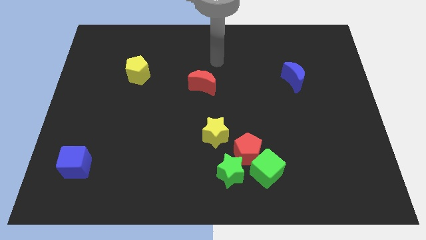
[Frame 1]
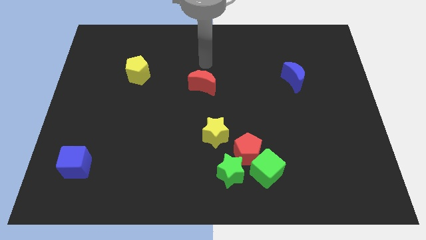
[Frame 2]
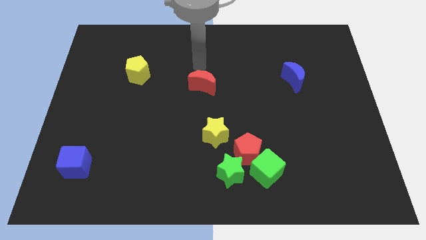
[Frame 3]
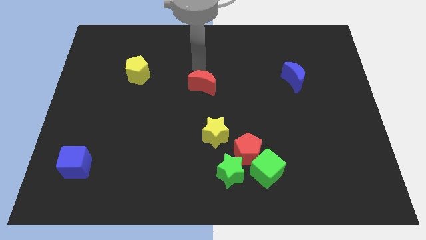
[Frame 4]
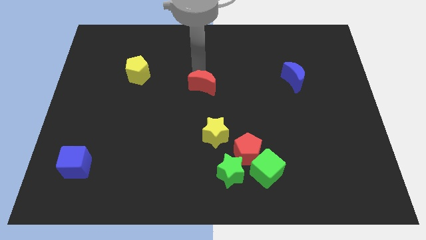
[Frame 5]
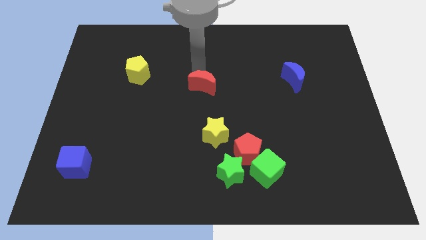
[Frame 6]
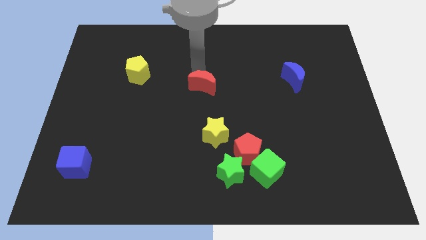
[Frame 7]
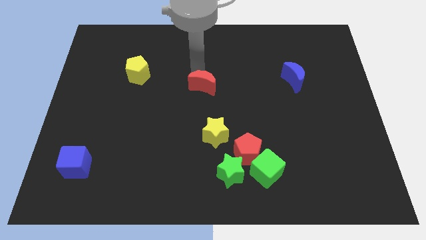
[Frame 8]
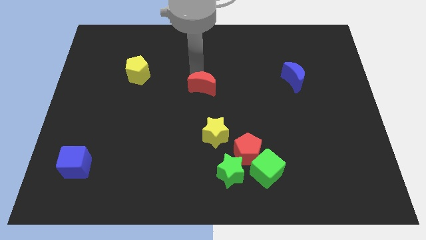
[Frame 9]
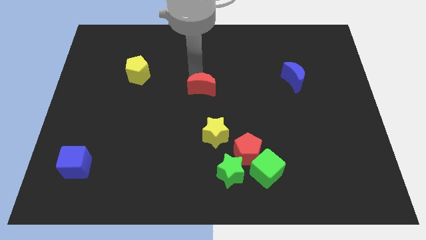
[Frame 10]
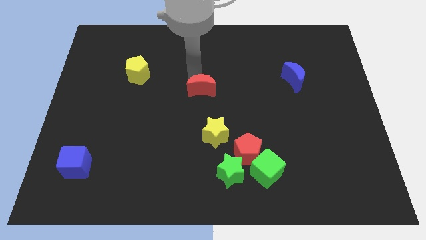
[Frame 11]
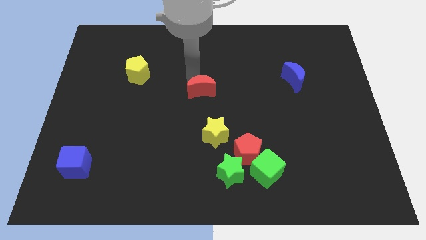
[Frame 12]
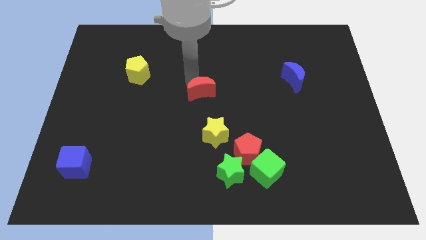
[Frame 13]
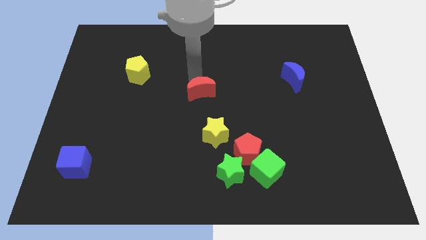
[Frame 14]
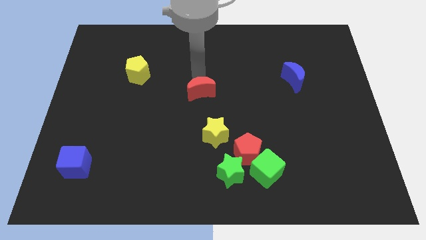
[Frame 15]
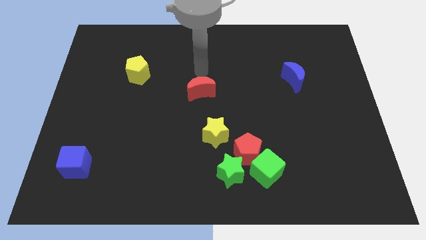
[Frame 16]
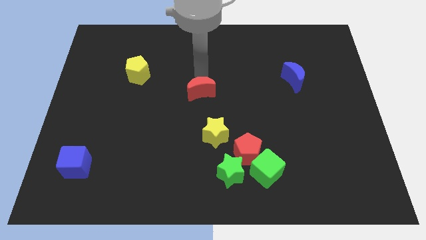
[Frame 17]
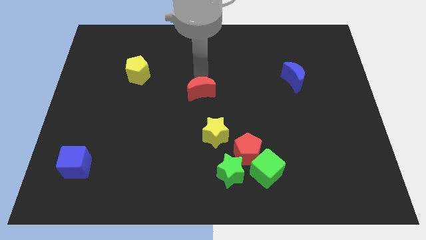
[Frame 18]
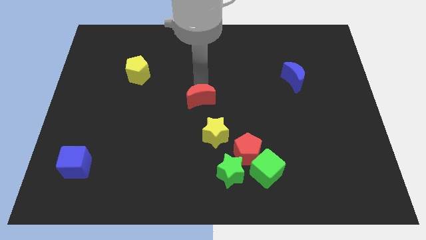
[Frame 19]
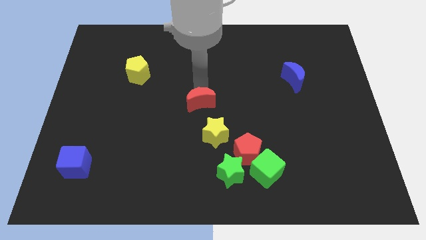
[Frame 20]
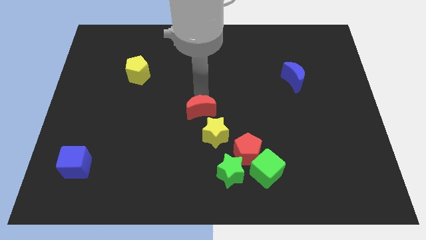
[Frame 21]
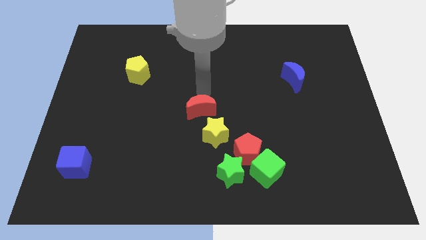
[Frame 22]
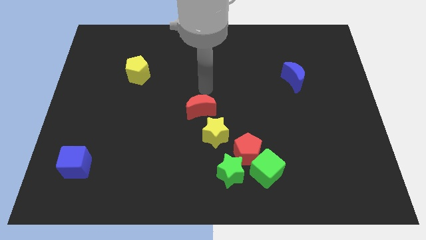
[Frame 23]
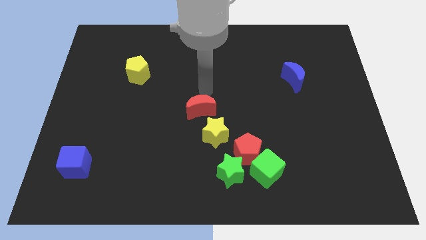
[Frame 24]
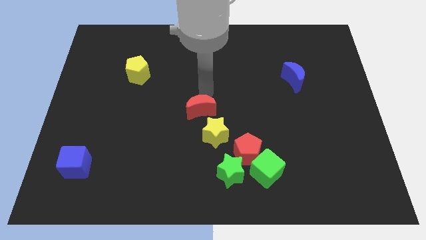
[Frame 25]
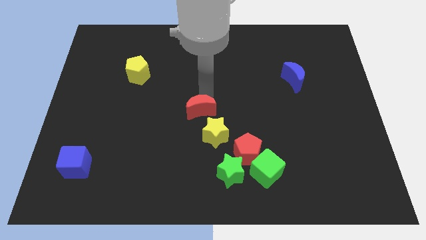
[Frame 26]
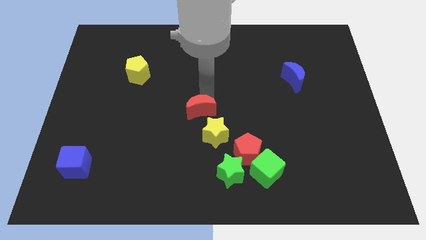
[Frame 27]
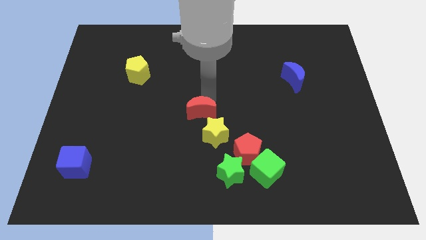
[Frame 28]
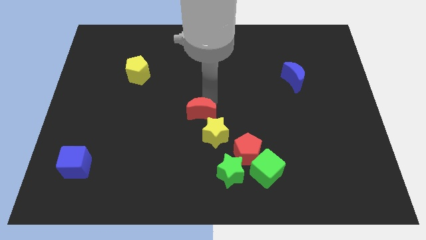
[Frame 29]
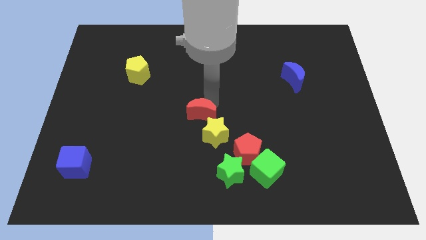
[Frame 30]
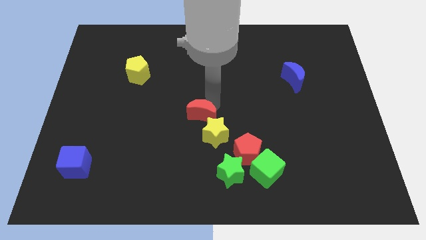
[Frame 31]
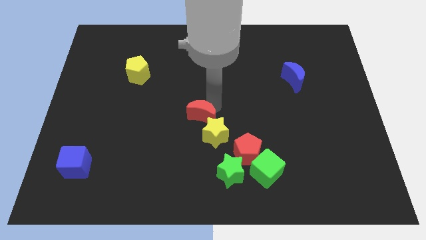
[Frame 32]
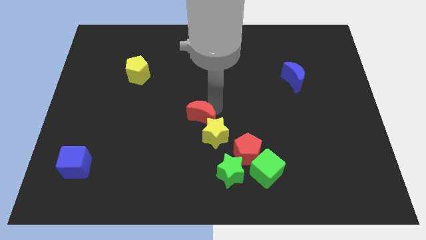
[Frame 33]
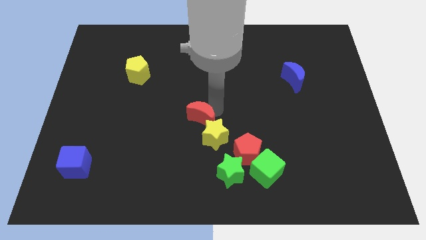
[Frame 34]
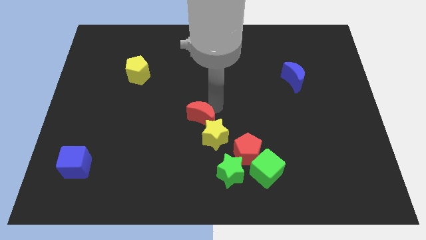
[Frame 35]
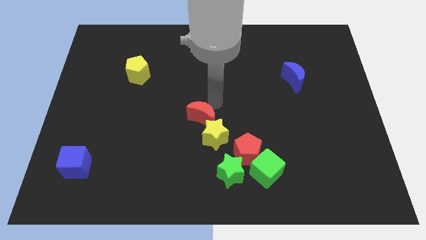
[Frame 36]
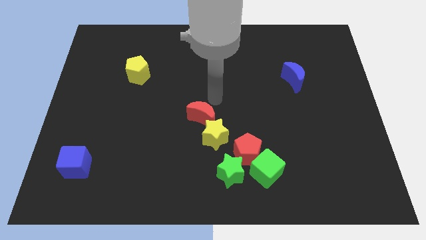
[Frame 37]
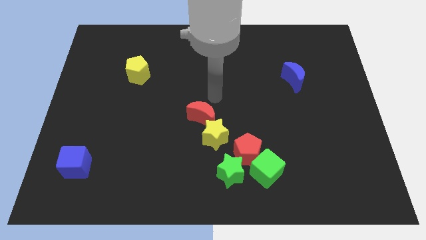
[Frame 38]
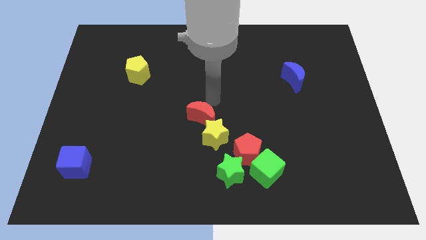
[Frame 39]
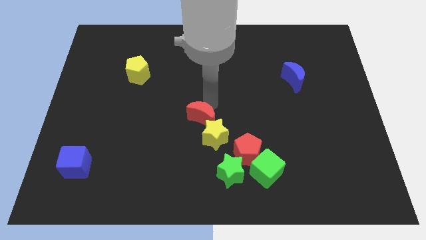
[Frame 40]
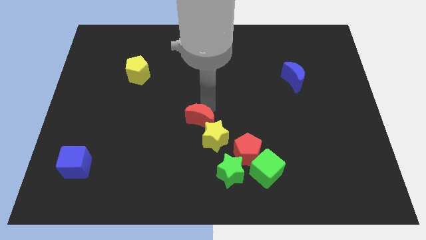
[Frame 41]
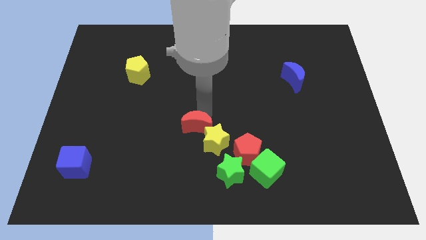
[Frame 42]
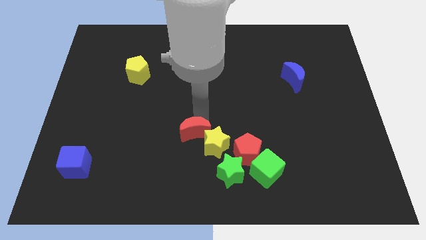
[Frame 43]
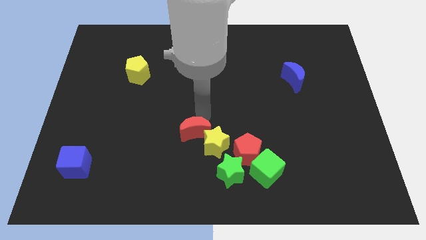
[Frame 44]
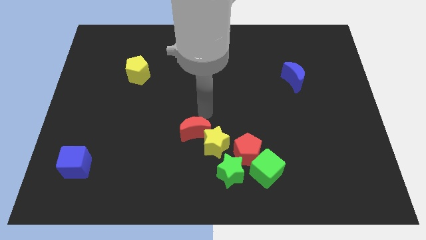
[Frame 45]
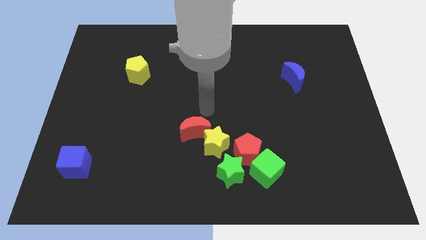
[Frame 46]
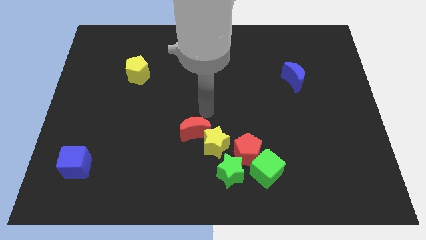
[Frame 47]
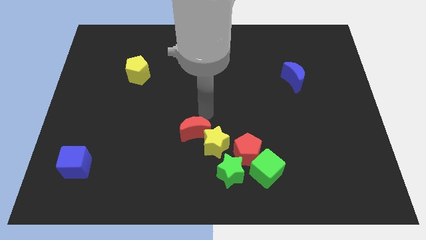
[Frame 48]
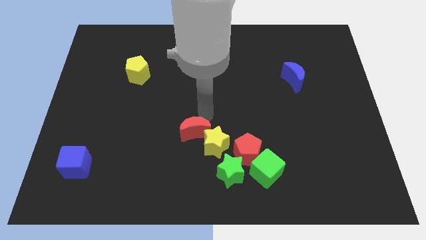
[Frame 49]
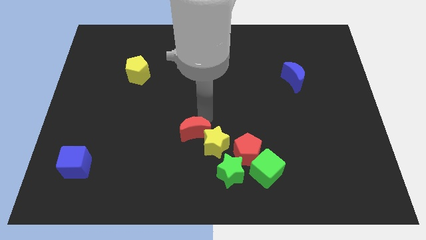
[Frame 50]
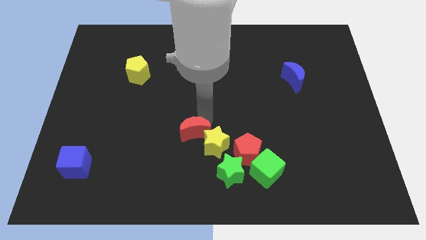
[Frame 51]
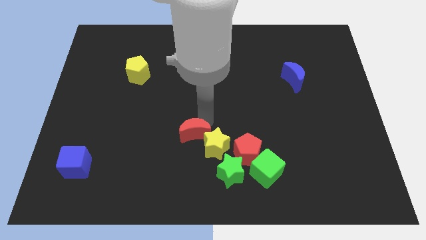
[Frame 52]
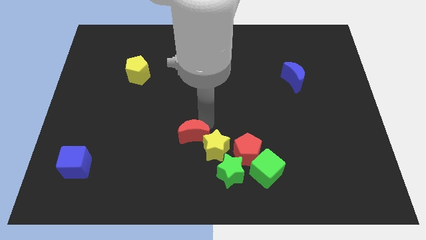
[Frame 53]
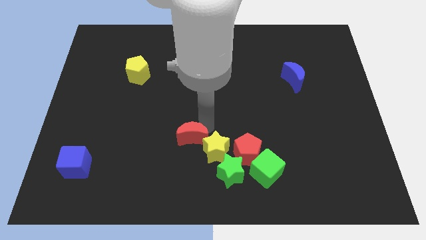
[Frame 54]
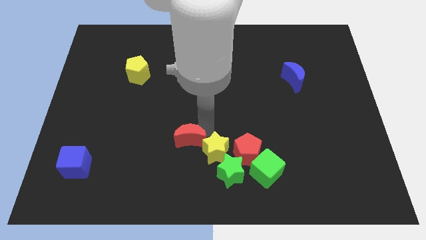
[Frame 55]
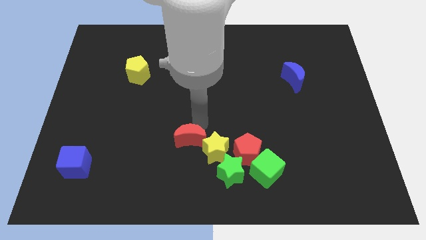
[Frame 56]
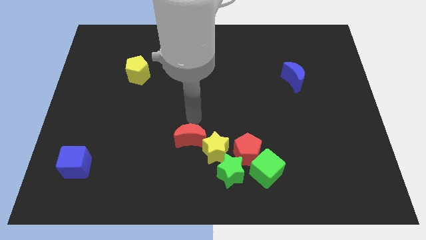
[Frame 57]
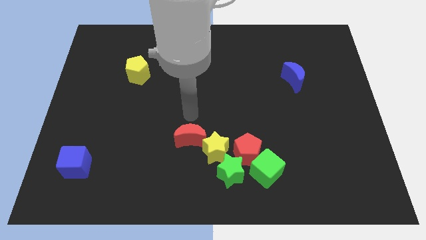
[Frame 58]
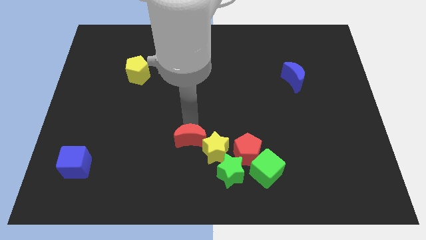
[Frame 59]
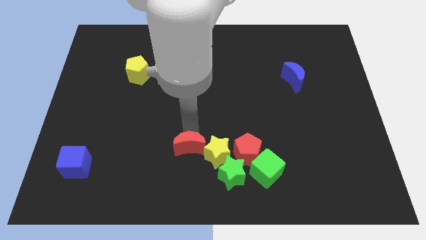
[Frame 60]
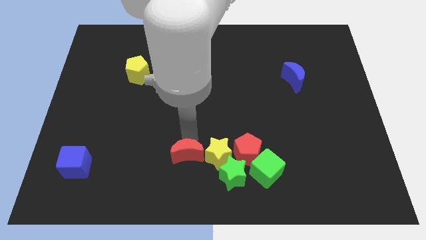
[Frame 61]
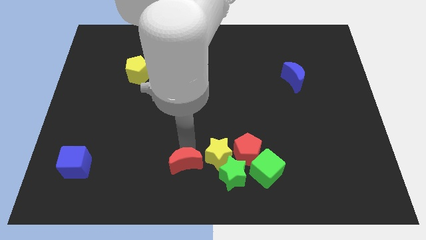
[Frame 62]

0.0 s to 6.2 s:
slide the red moon to the bottom side
